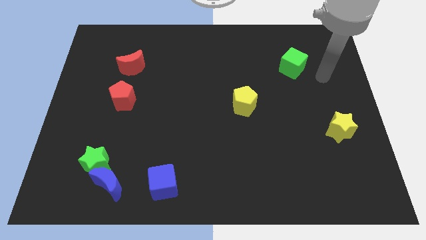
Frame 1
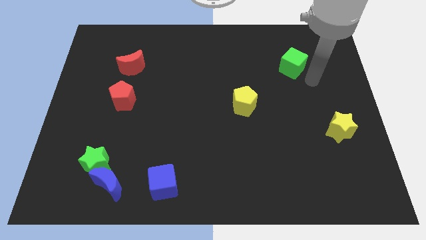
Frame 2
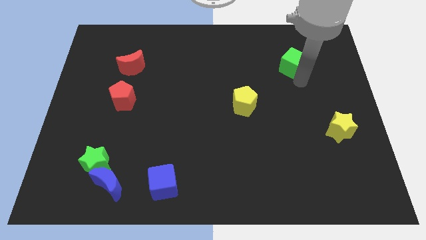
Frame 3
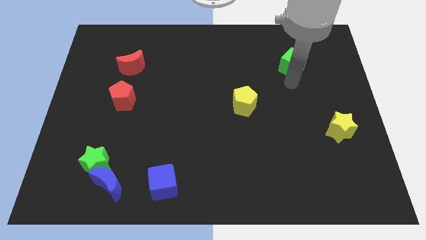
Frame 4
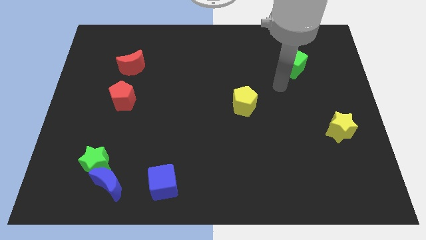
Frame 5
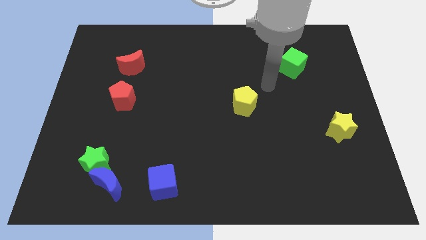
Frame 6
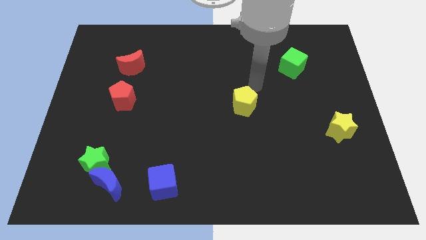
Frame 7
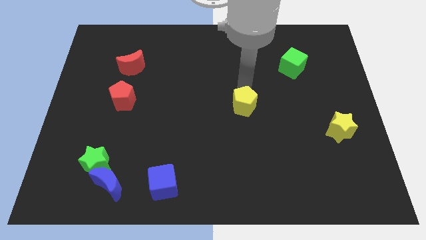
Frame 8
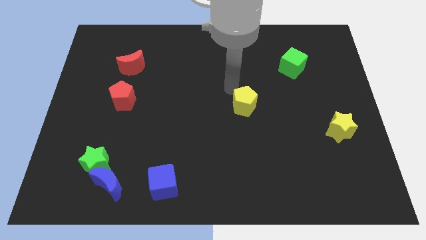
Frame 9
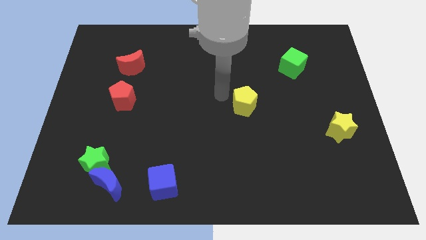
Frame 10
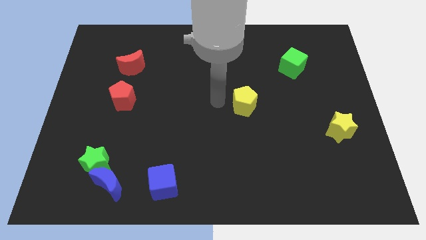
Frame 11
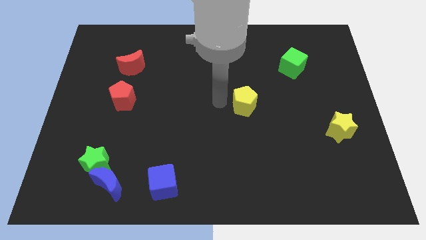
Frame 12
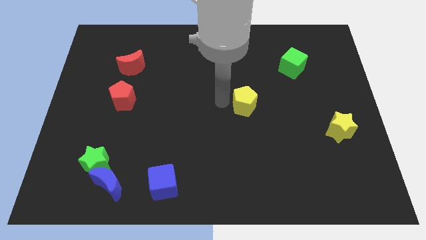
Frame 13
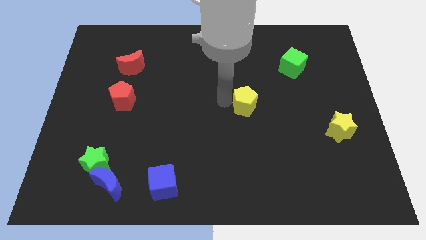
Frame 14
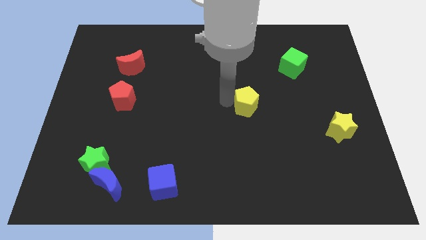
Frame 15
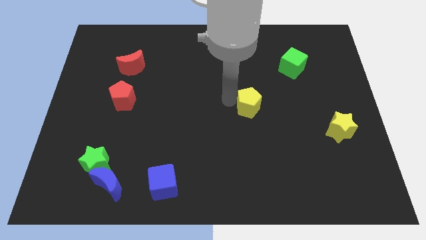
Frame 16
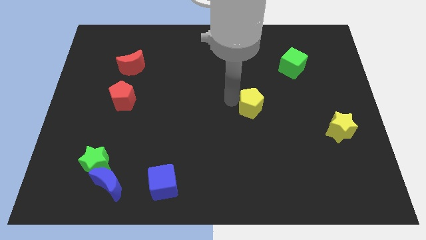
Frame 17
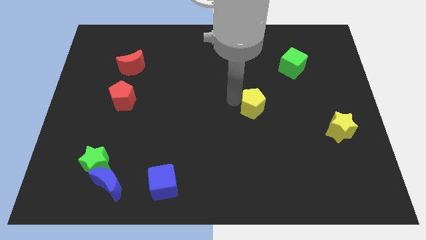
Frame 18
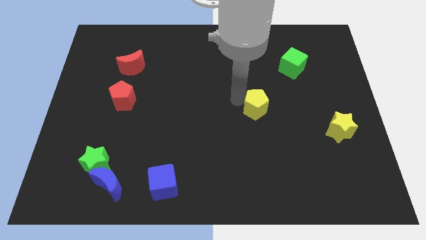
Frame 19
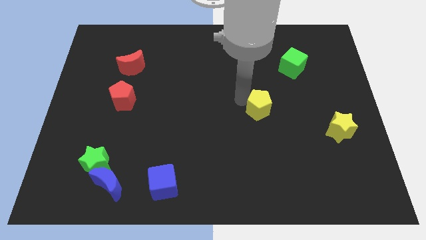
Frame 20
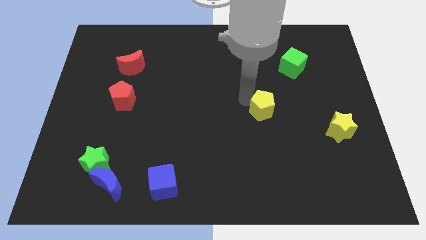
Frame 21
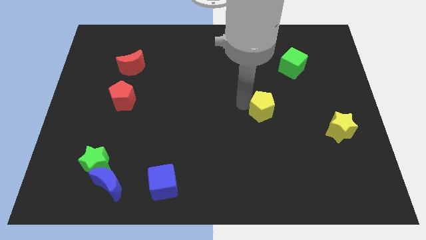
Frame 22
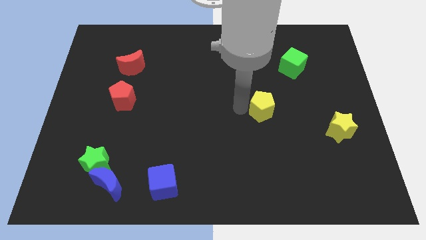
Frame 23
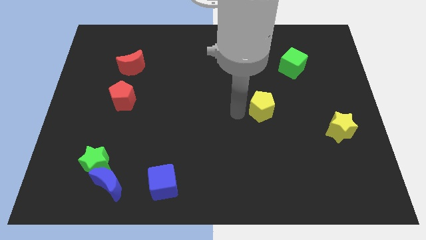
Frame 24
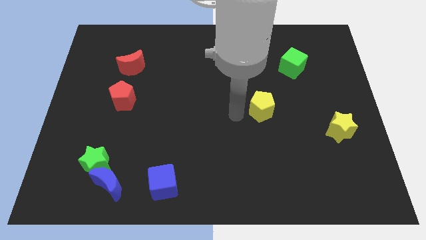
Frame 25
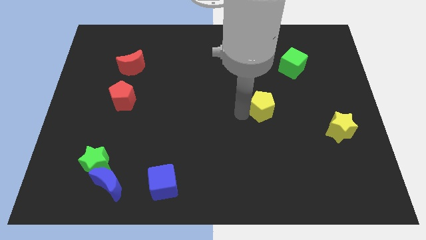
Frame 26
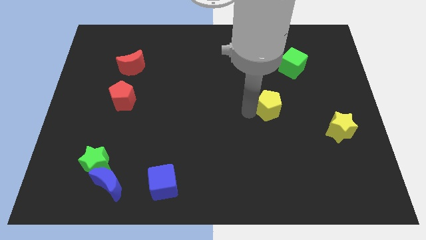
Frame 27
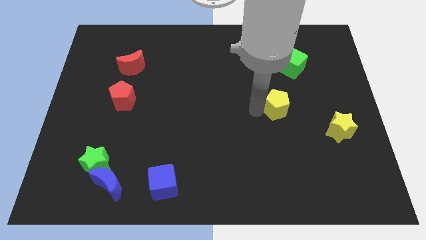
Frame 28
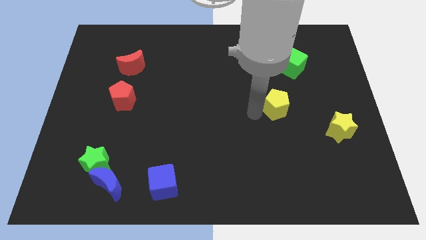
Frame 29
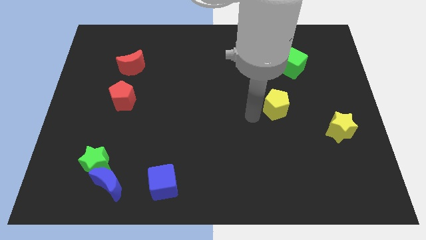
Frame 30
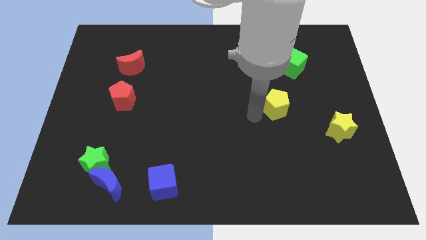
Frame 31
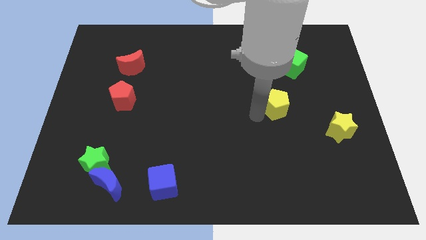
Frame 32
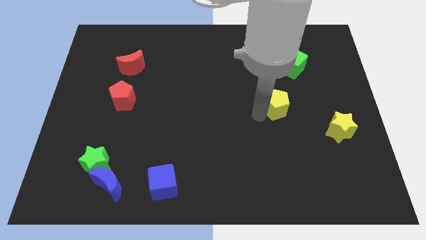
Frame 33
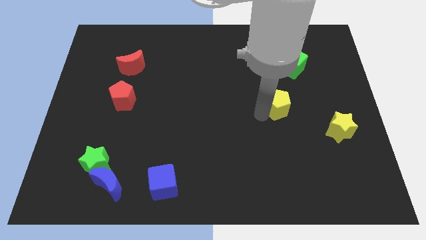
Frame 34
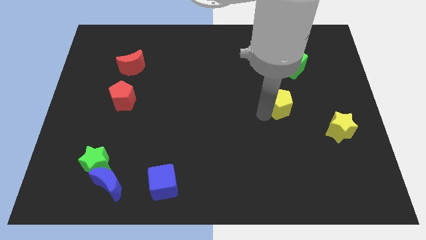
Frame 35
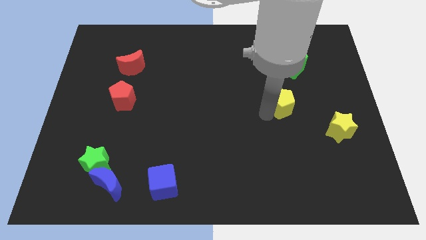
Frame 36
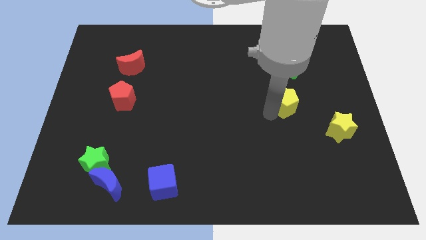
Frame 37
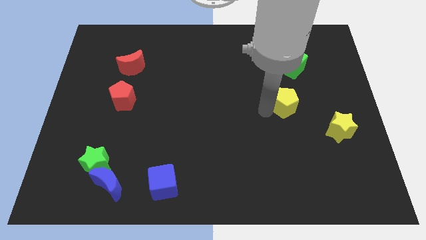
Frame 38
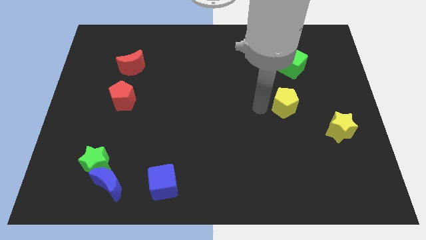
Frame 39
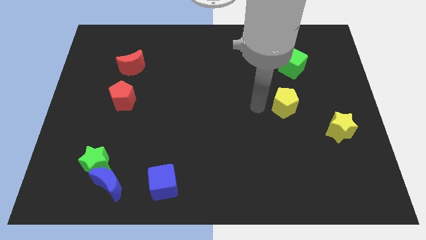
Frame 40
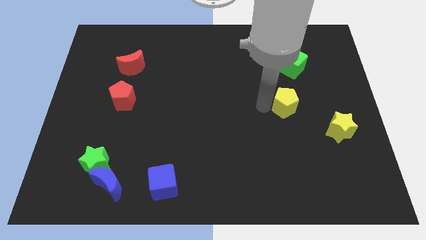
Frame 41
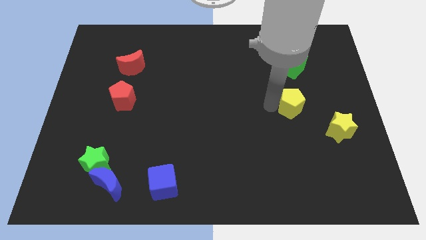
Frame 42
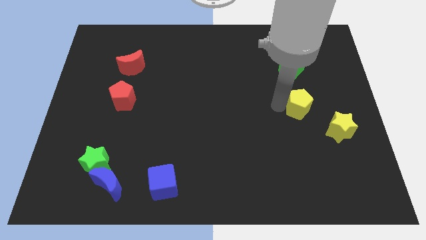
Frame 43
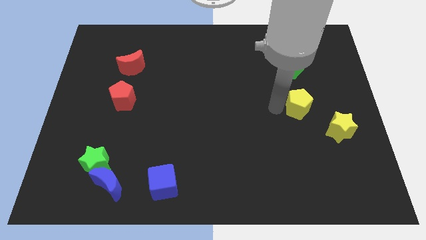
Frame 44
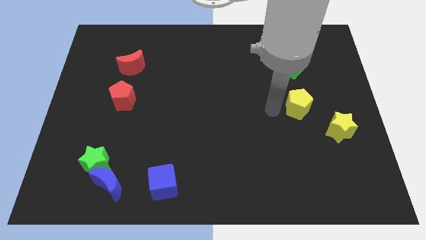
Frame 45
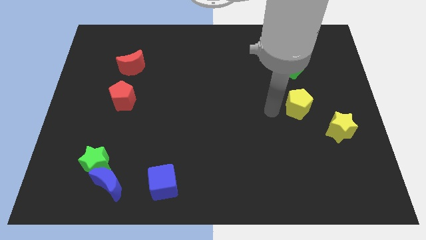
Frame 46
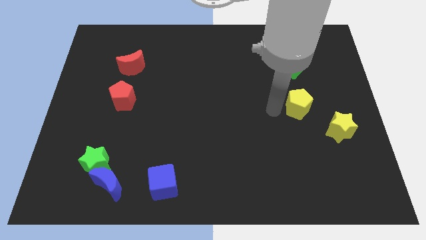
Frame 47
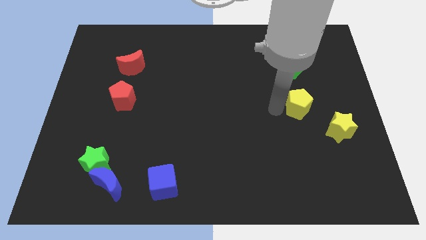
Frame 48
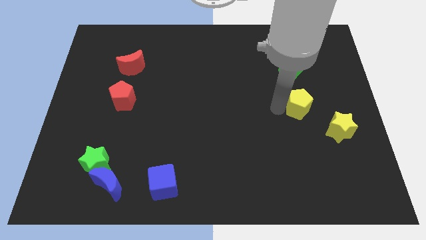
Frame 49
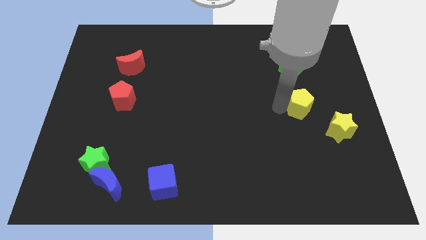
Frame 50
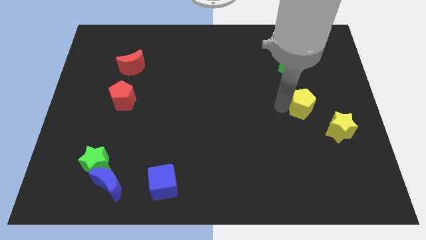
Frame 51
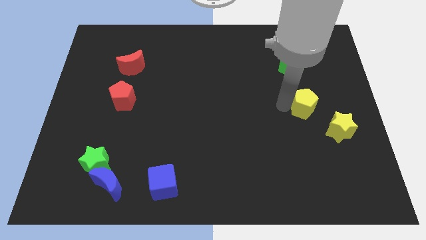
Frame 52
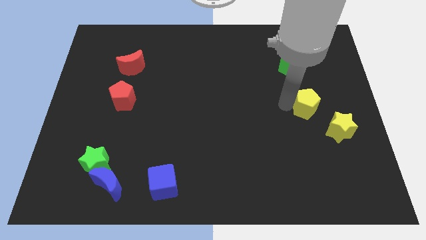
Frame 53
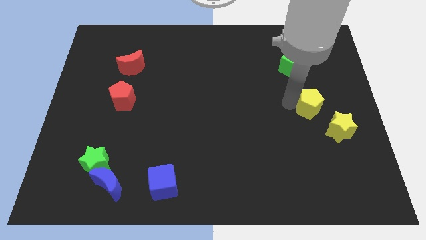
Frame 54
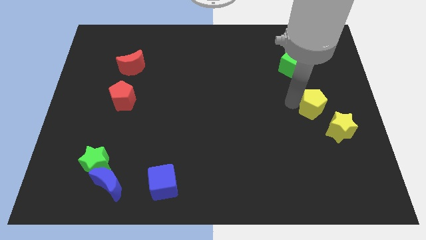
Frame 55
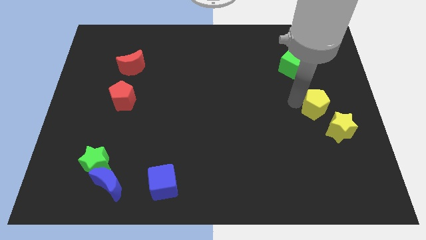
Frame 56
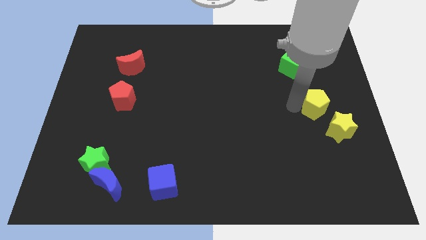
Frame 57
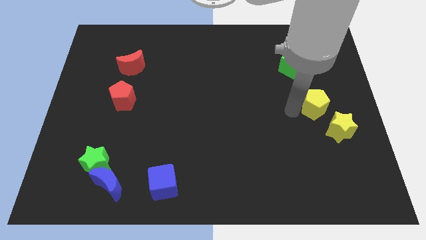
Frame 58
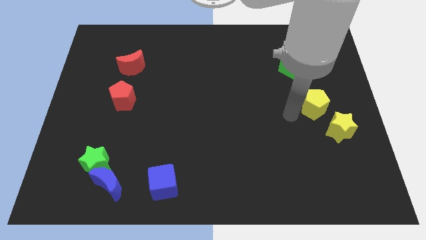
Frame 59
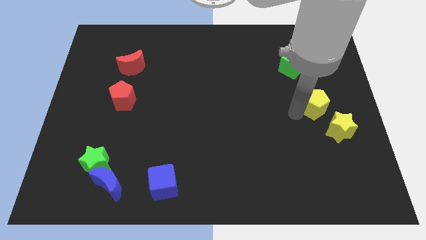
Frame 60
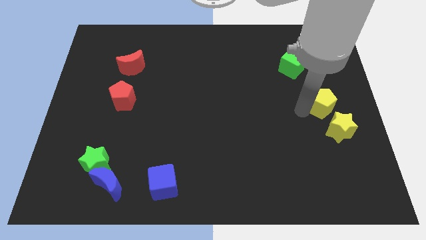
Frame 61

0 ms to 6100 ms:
push the yellow pentagon to the center right
